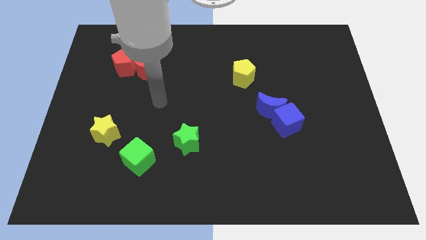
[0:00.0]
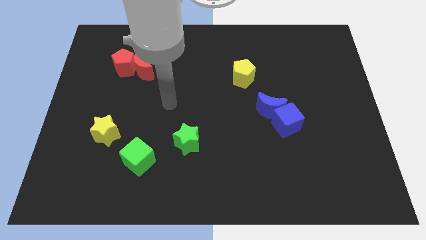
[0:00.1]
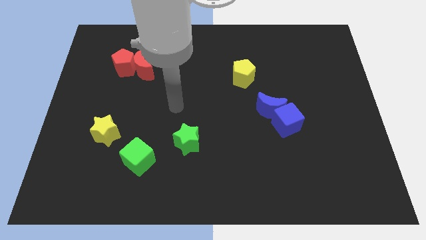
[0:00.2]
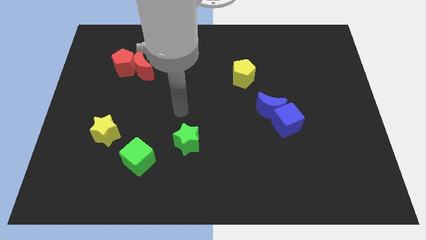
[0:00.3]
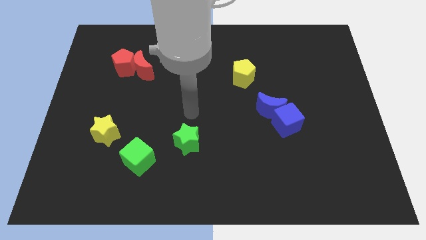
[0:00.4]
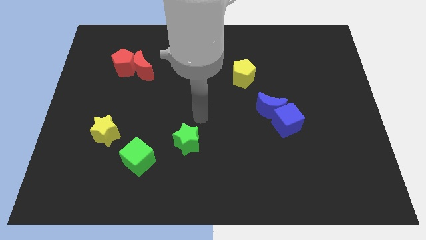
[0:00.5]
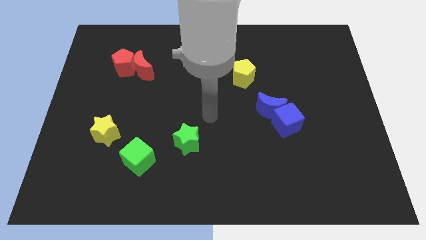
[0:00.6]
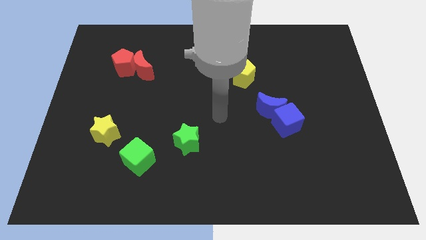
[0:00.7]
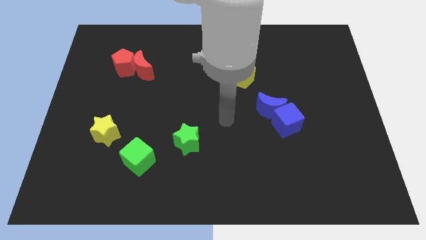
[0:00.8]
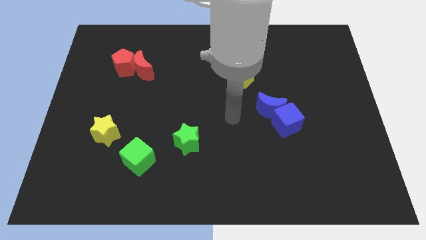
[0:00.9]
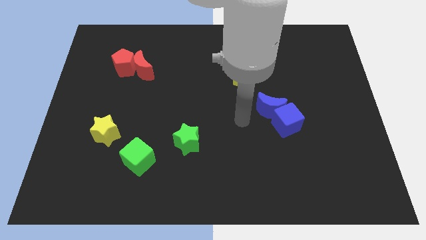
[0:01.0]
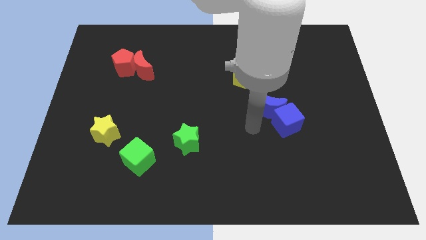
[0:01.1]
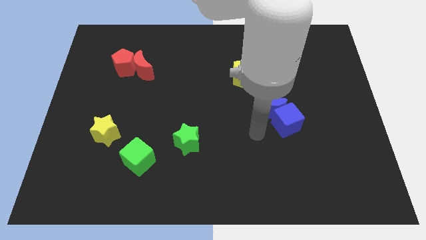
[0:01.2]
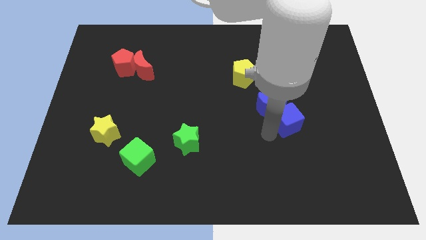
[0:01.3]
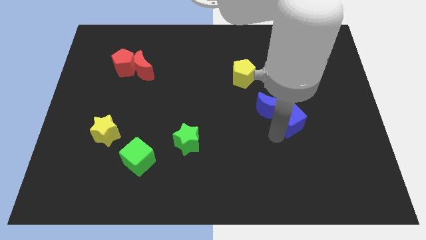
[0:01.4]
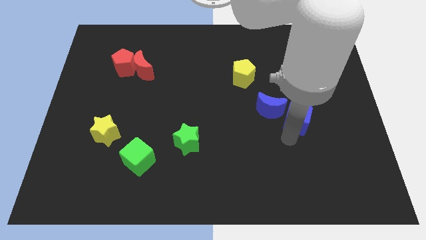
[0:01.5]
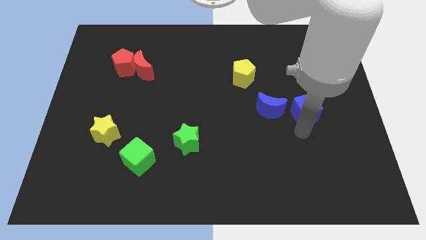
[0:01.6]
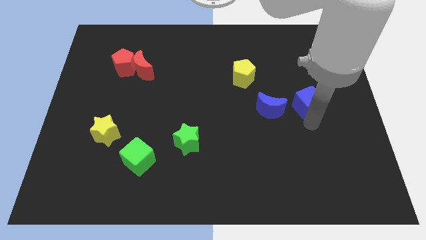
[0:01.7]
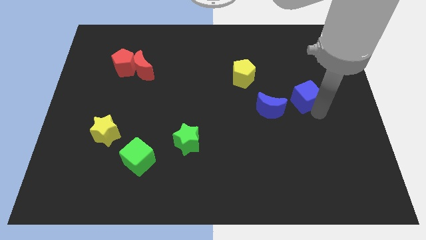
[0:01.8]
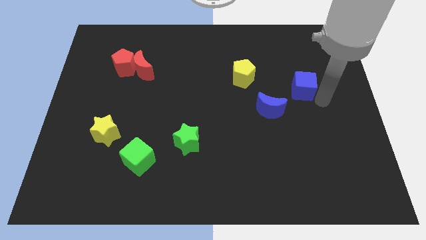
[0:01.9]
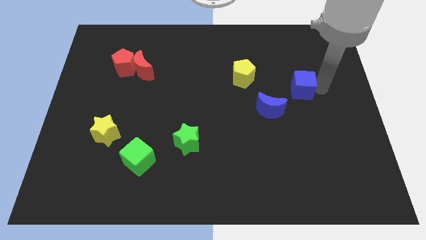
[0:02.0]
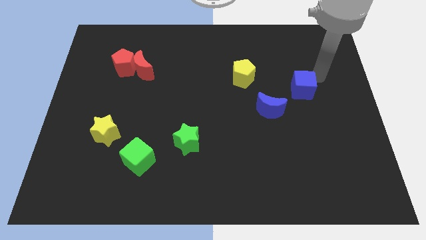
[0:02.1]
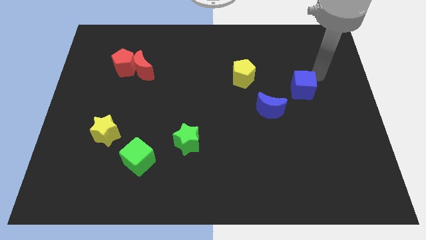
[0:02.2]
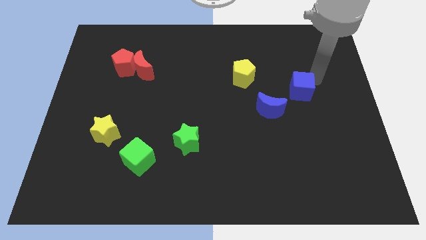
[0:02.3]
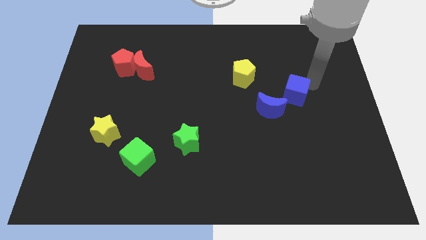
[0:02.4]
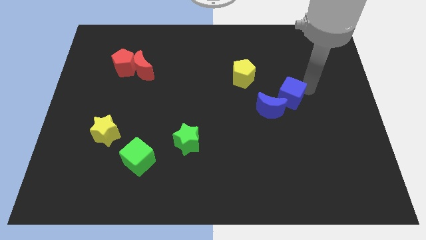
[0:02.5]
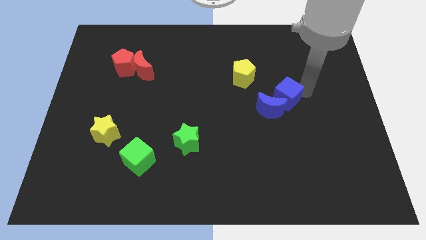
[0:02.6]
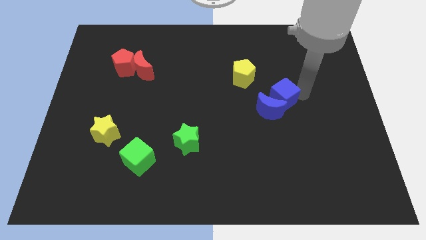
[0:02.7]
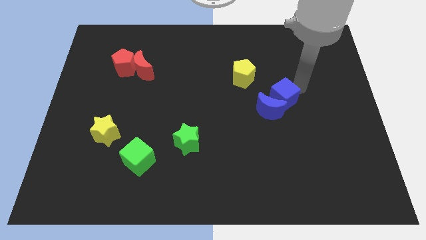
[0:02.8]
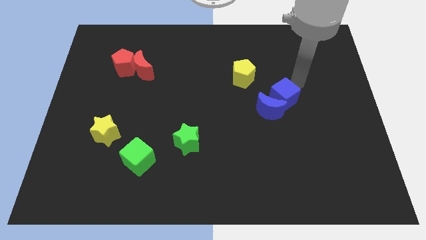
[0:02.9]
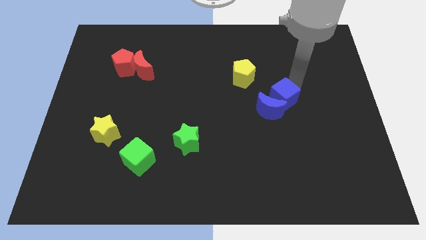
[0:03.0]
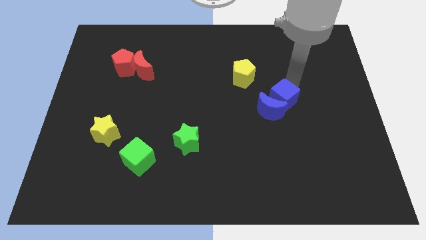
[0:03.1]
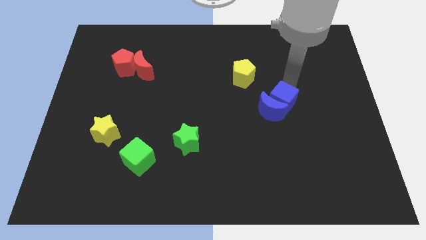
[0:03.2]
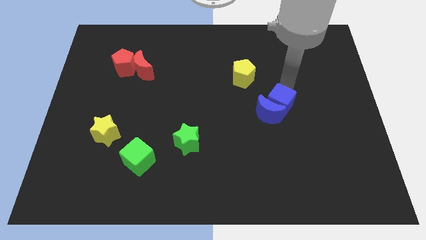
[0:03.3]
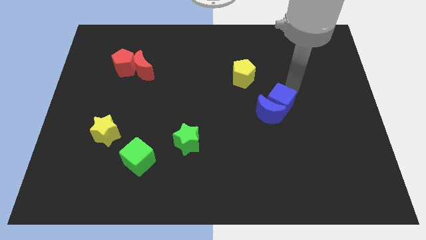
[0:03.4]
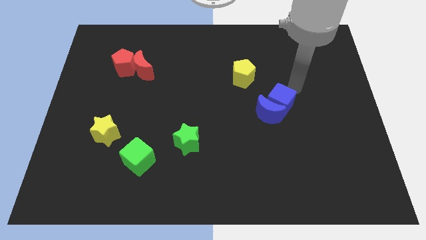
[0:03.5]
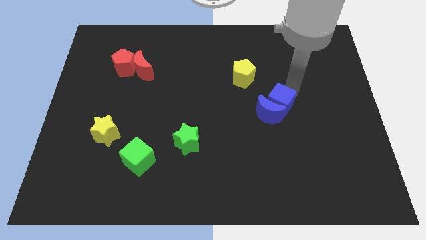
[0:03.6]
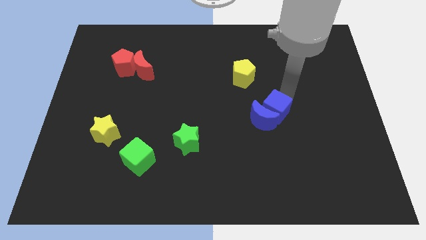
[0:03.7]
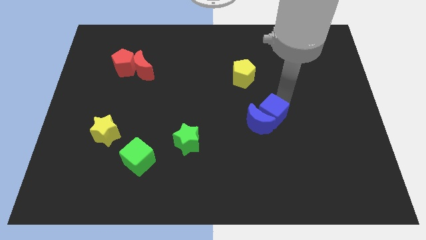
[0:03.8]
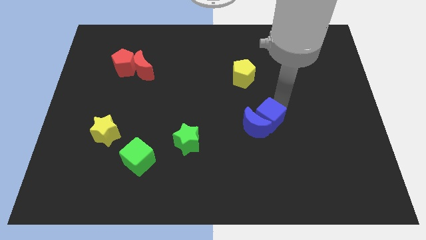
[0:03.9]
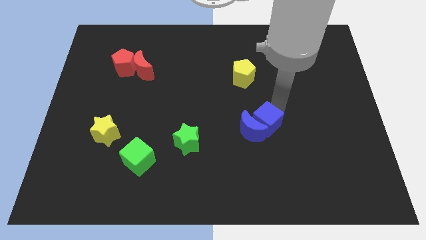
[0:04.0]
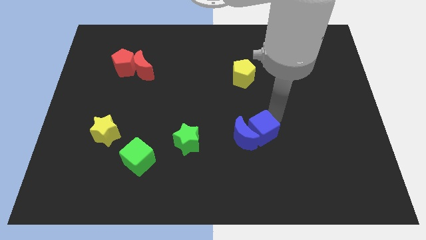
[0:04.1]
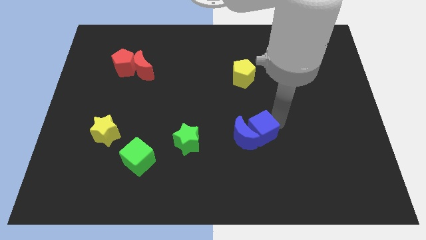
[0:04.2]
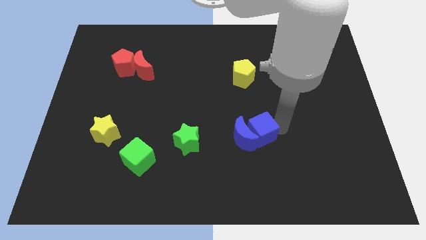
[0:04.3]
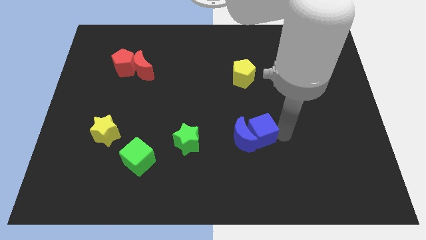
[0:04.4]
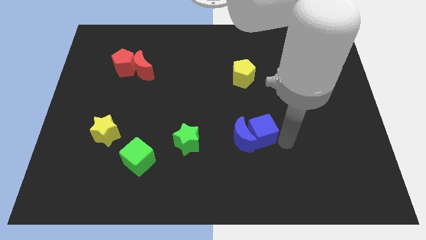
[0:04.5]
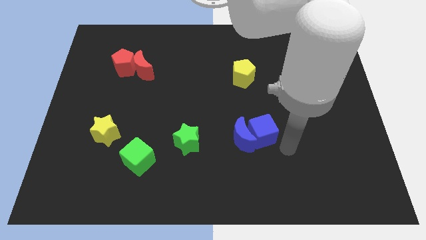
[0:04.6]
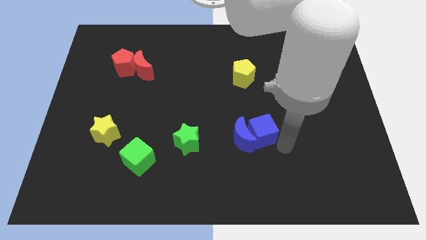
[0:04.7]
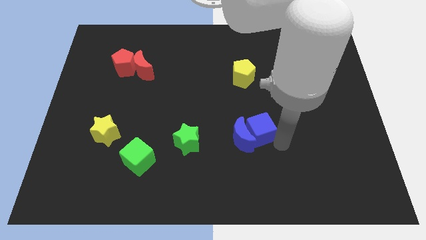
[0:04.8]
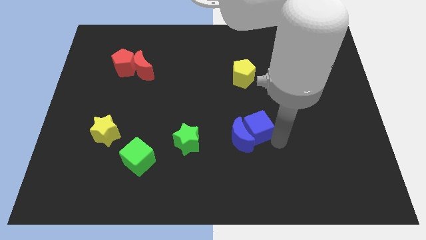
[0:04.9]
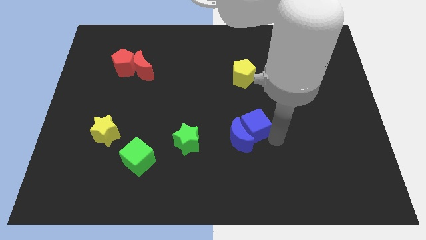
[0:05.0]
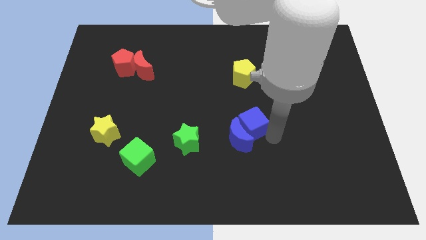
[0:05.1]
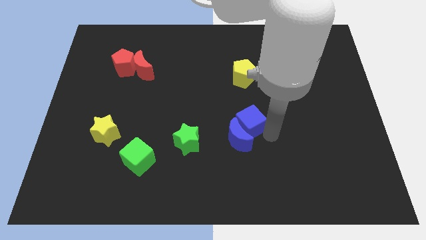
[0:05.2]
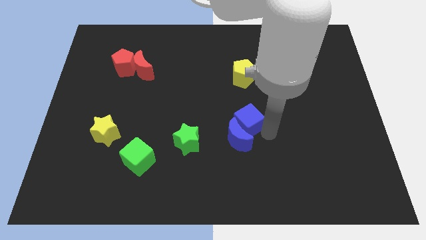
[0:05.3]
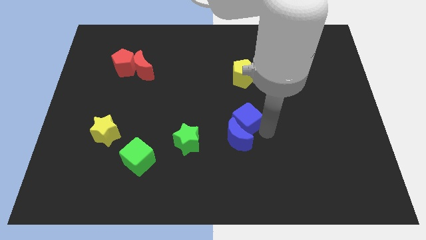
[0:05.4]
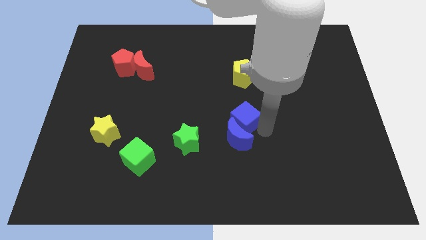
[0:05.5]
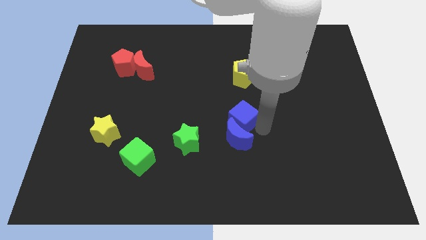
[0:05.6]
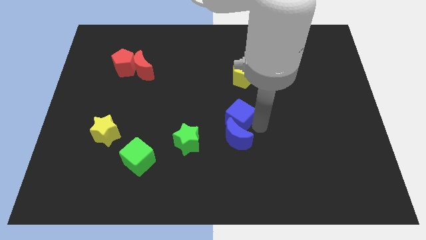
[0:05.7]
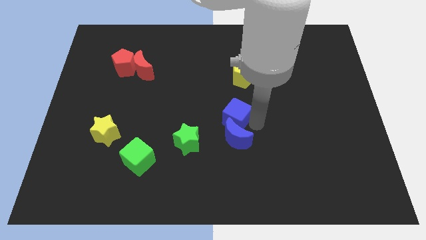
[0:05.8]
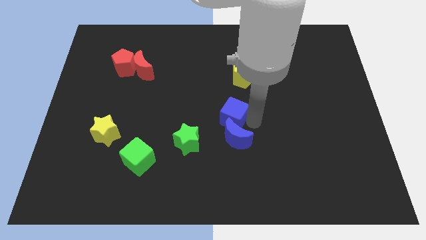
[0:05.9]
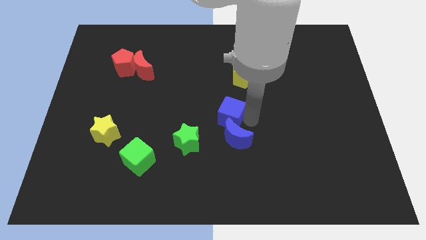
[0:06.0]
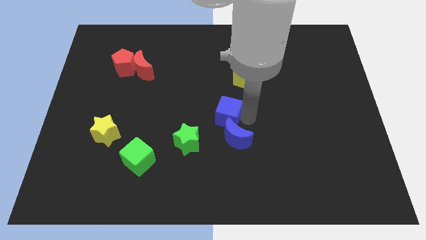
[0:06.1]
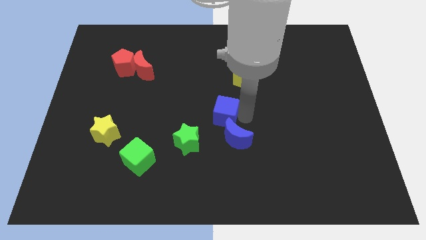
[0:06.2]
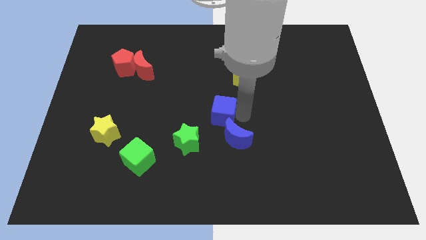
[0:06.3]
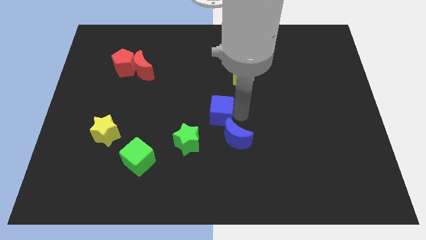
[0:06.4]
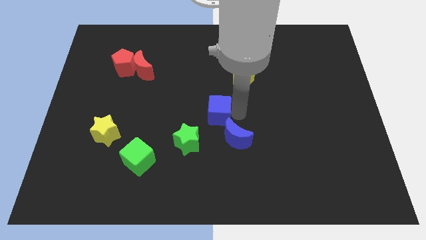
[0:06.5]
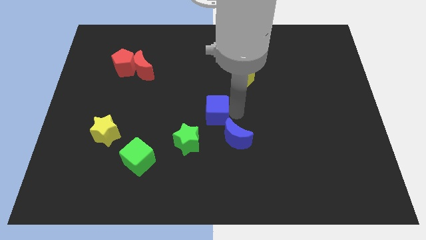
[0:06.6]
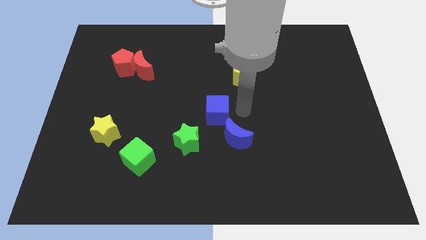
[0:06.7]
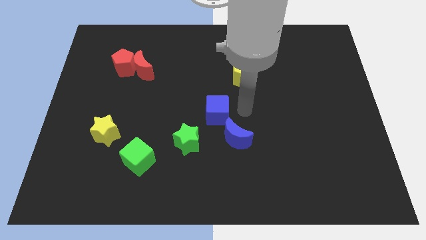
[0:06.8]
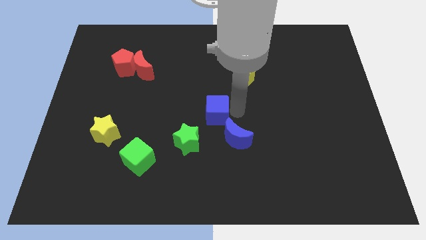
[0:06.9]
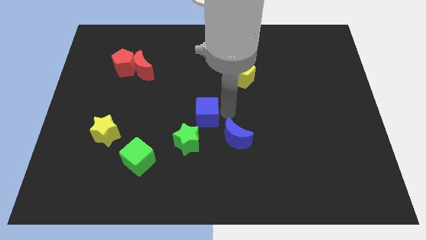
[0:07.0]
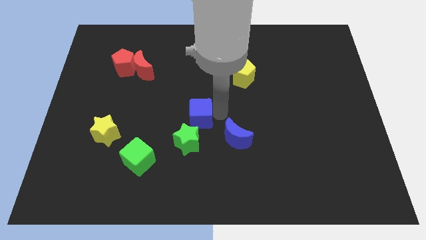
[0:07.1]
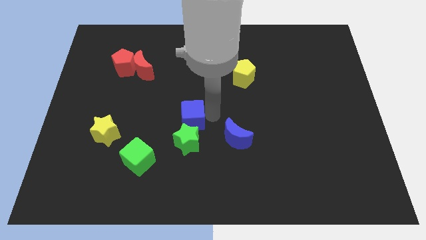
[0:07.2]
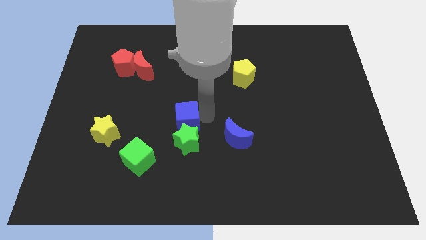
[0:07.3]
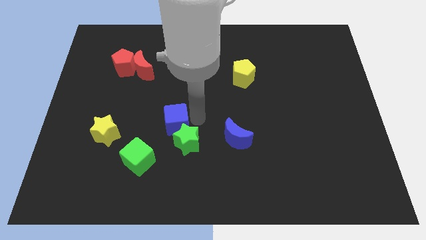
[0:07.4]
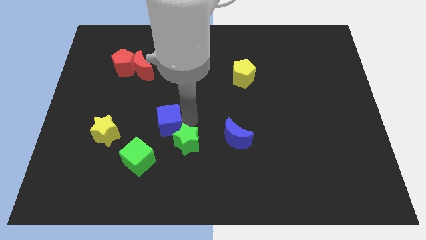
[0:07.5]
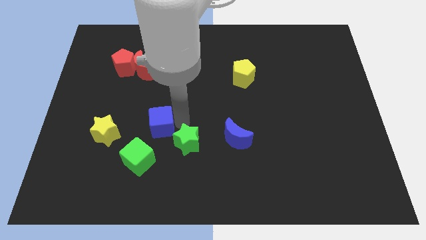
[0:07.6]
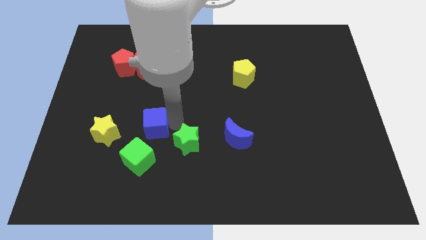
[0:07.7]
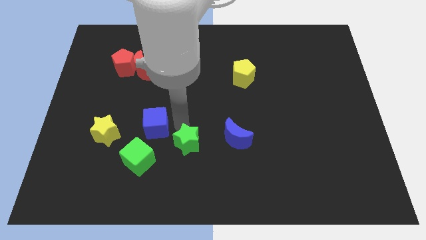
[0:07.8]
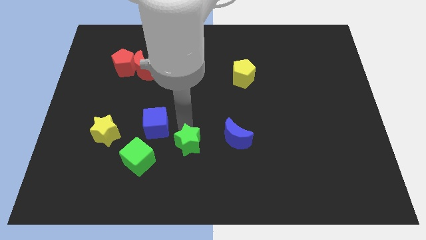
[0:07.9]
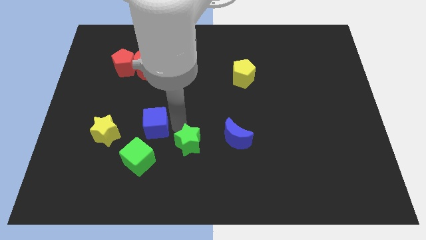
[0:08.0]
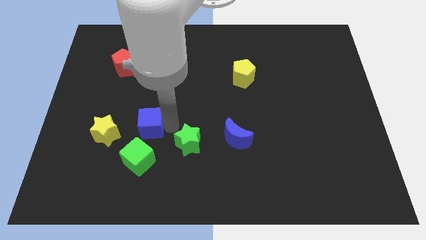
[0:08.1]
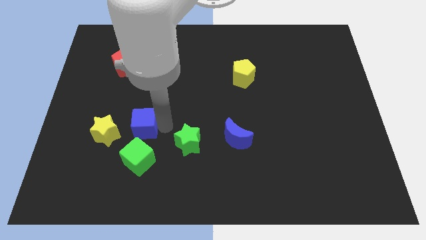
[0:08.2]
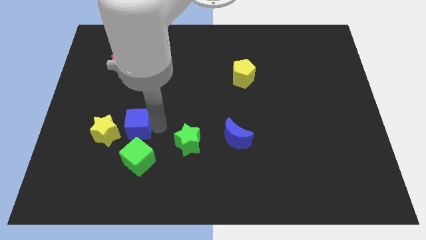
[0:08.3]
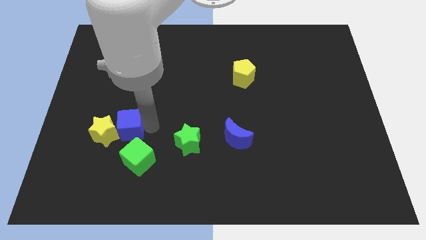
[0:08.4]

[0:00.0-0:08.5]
move the blue cube towards the yellow star
